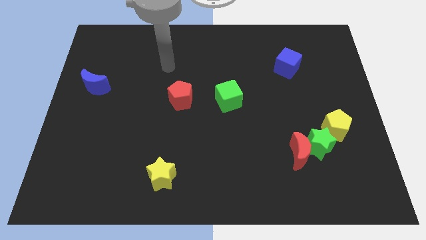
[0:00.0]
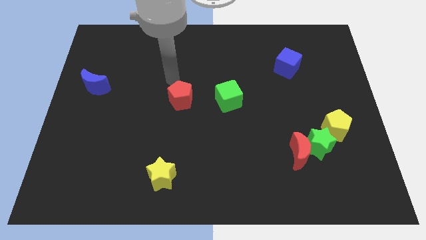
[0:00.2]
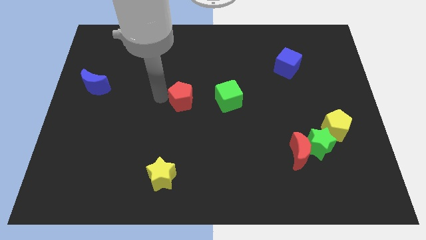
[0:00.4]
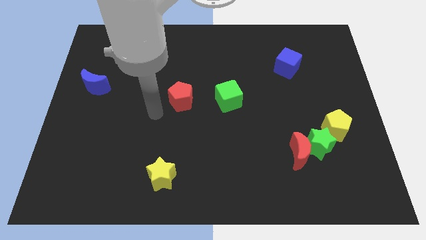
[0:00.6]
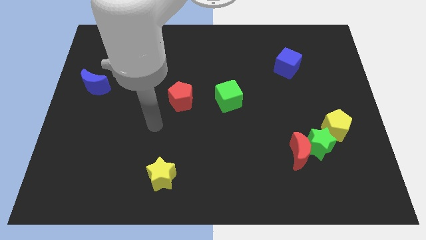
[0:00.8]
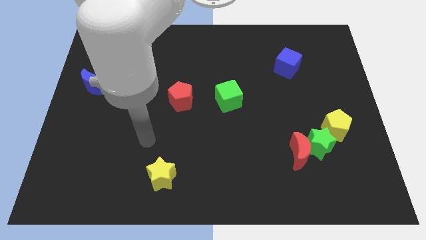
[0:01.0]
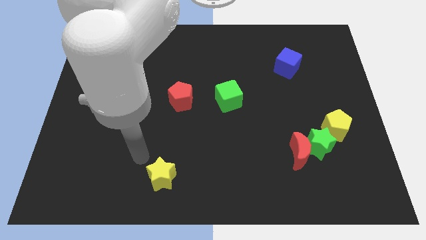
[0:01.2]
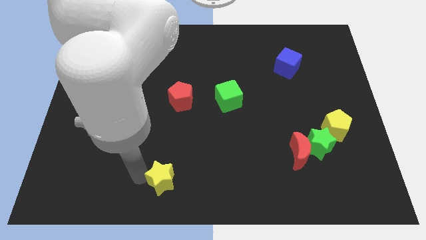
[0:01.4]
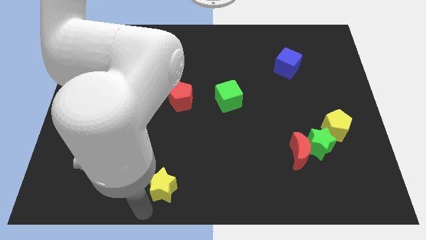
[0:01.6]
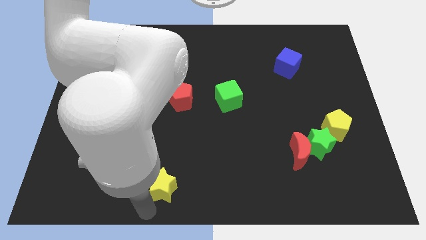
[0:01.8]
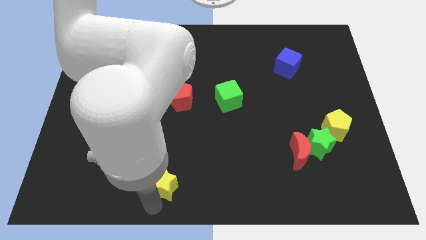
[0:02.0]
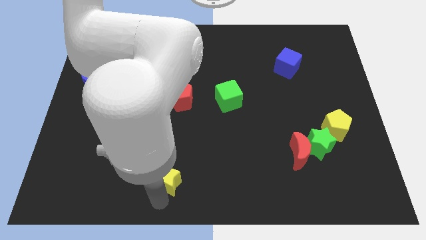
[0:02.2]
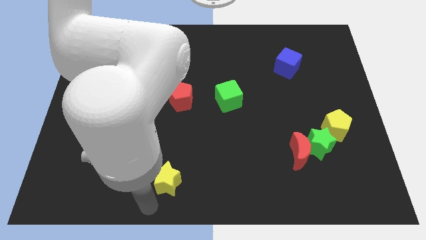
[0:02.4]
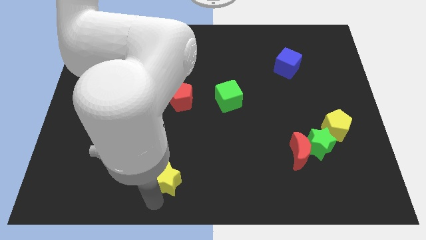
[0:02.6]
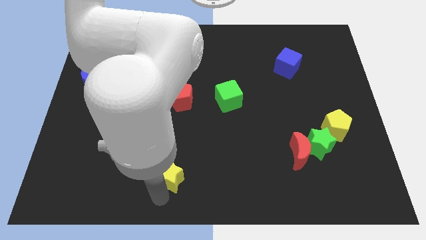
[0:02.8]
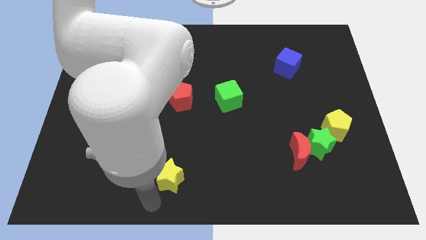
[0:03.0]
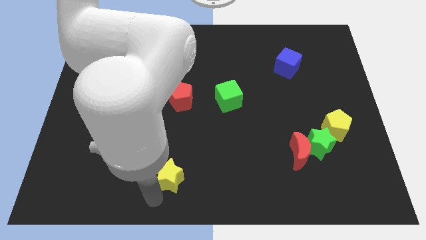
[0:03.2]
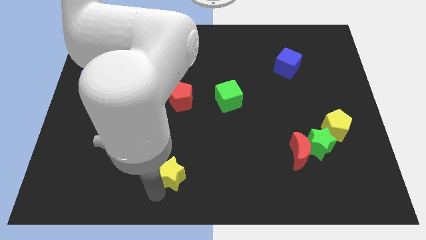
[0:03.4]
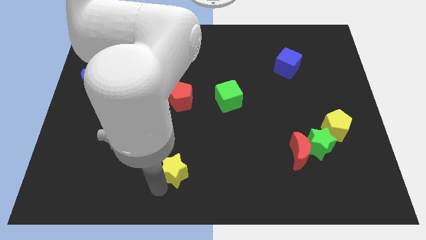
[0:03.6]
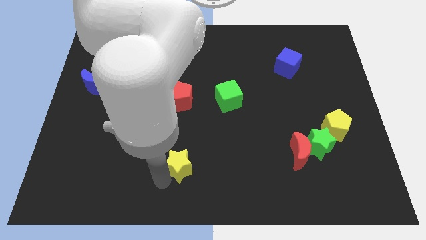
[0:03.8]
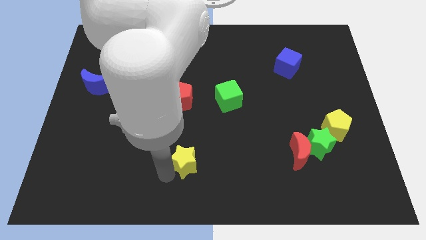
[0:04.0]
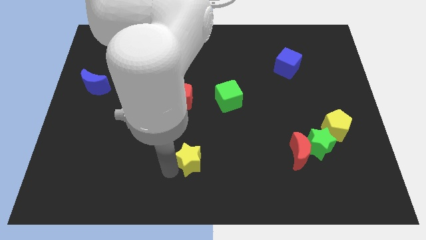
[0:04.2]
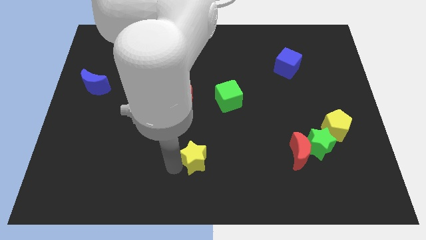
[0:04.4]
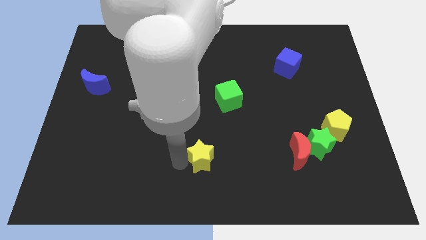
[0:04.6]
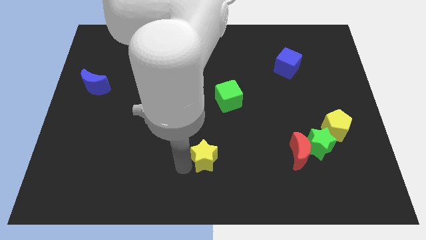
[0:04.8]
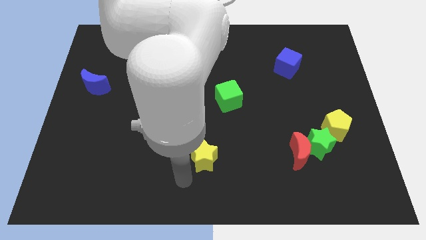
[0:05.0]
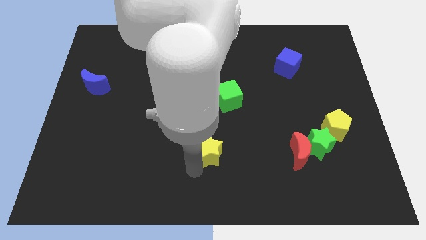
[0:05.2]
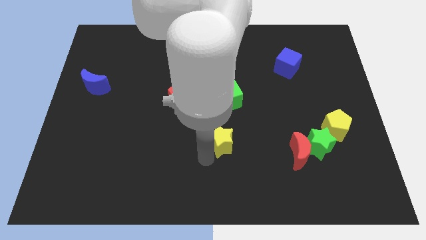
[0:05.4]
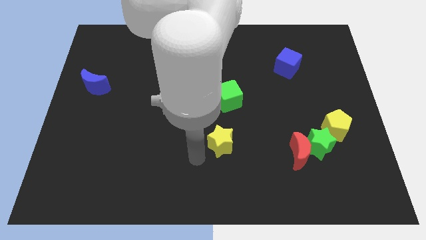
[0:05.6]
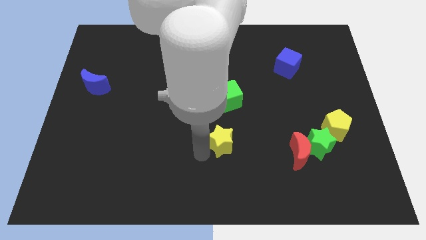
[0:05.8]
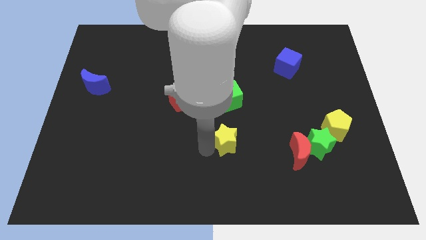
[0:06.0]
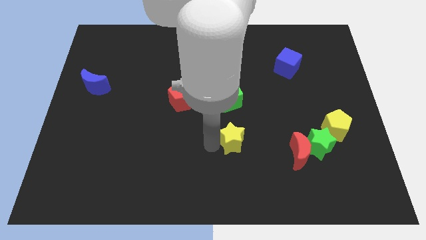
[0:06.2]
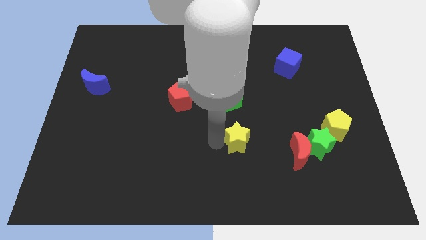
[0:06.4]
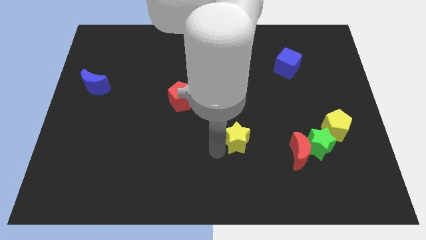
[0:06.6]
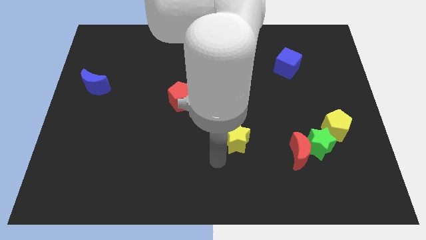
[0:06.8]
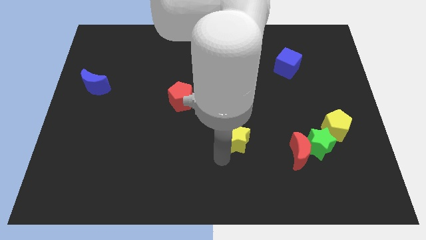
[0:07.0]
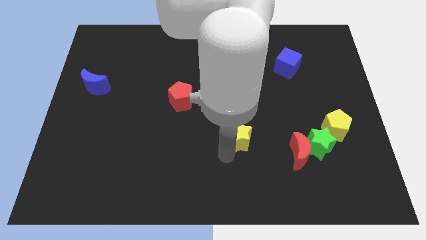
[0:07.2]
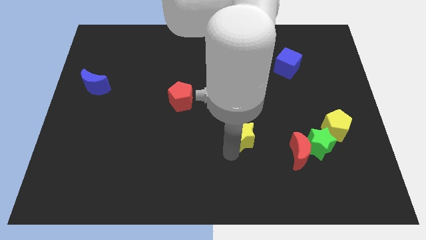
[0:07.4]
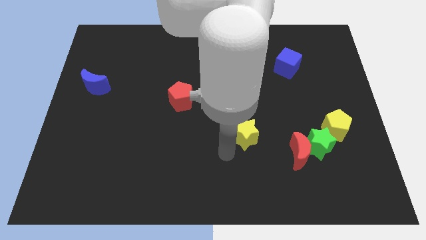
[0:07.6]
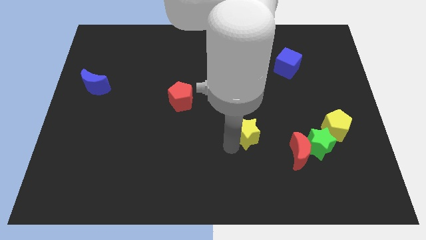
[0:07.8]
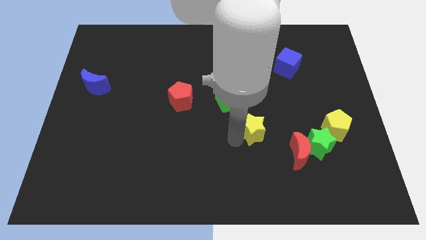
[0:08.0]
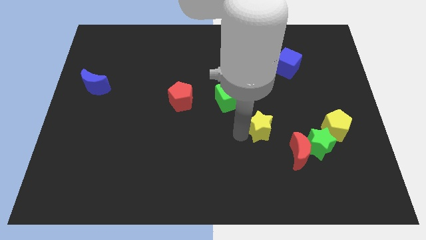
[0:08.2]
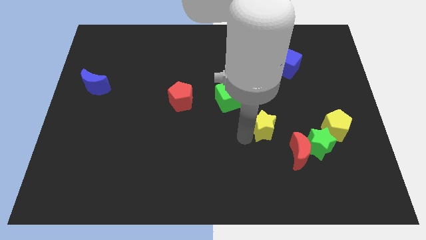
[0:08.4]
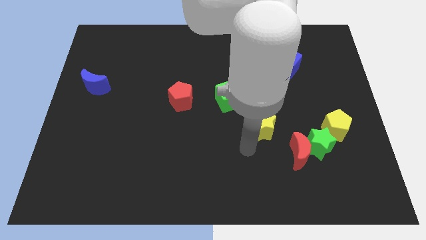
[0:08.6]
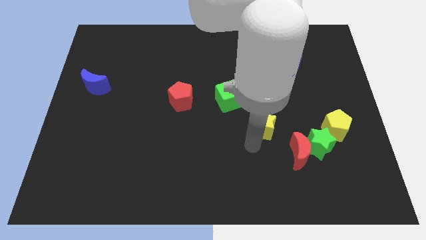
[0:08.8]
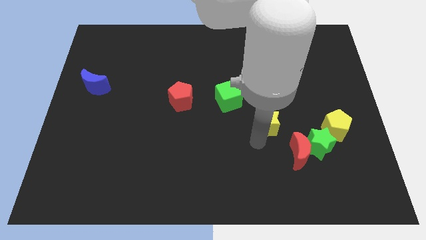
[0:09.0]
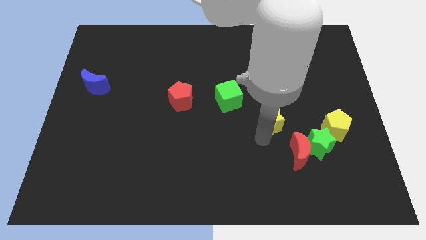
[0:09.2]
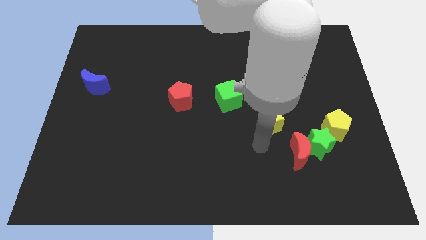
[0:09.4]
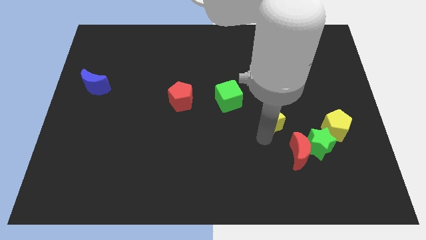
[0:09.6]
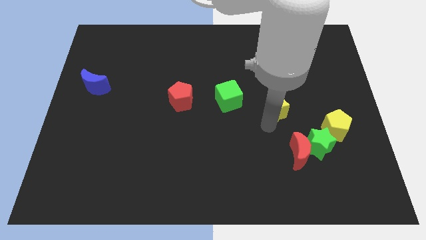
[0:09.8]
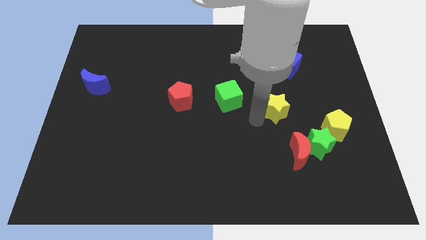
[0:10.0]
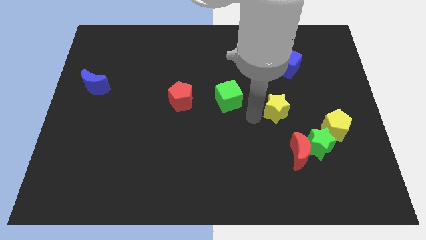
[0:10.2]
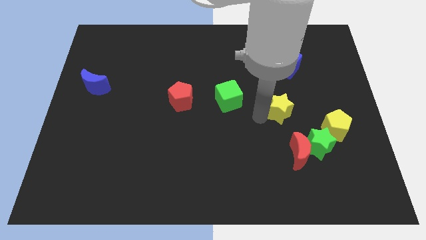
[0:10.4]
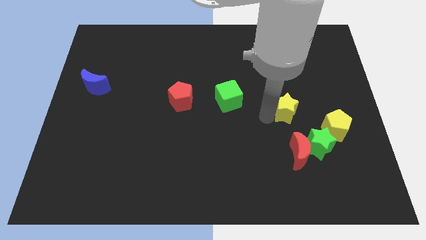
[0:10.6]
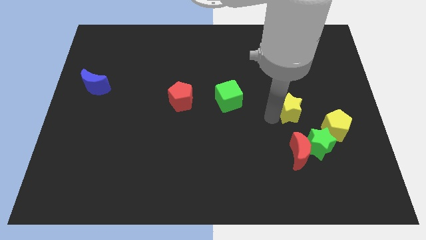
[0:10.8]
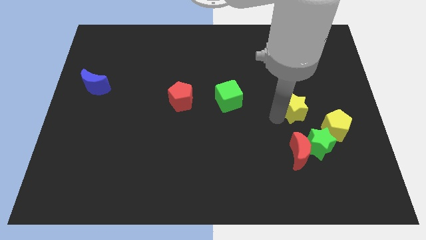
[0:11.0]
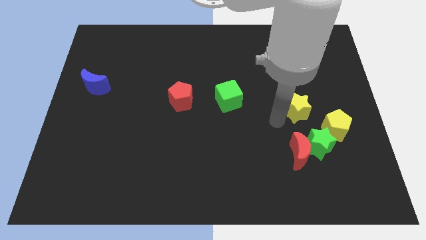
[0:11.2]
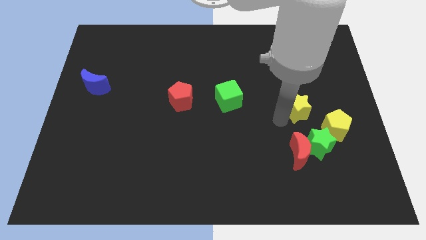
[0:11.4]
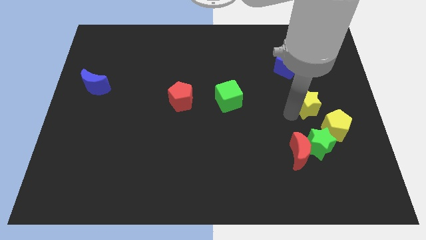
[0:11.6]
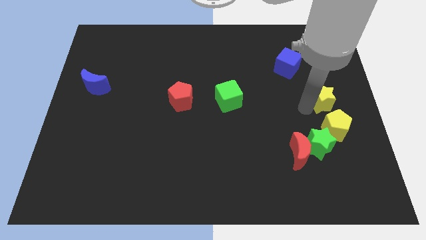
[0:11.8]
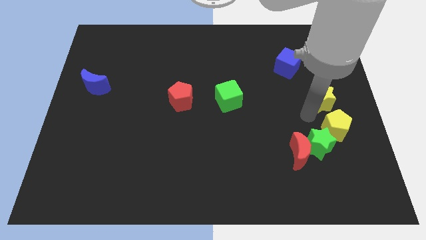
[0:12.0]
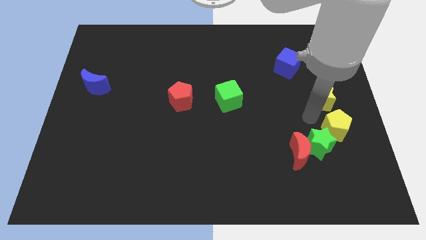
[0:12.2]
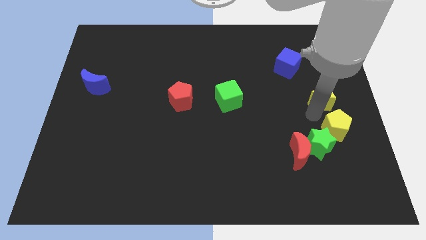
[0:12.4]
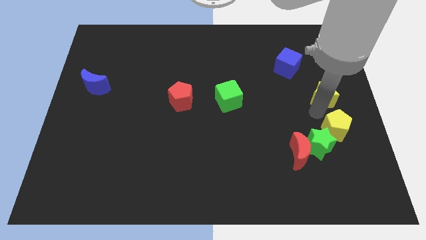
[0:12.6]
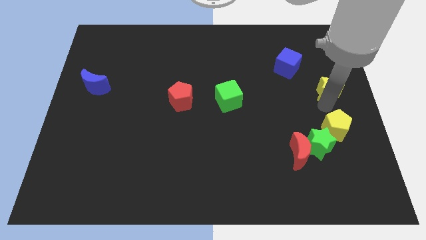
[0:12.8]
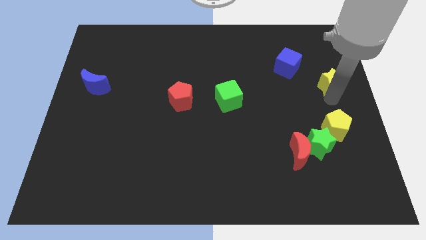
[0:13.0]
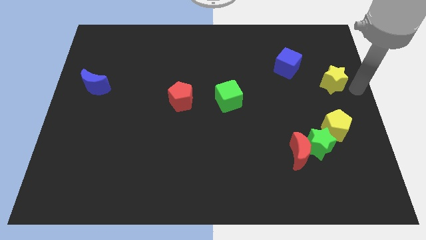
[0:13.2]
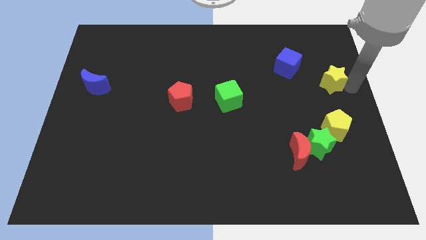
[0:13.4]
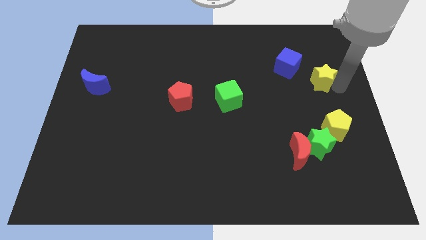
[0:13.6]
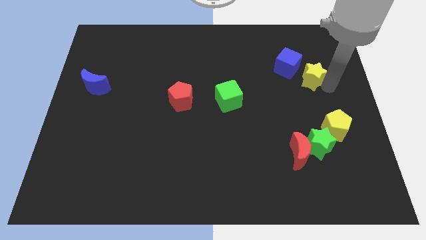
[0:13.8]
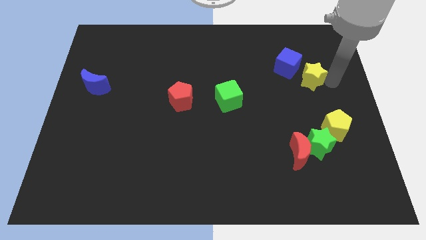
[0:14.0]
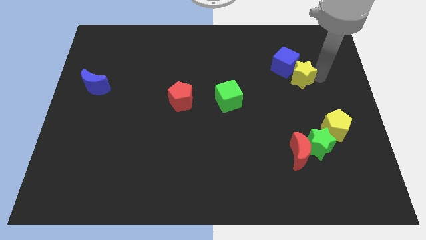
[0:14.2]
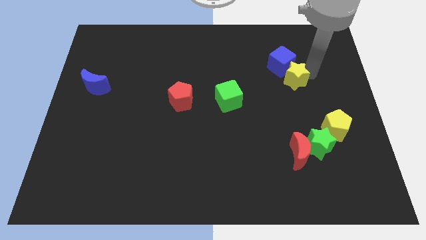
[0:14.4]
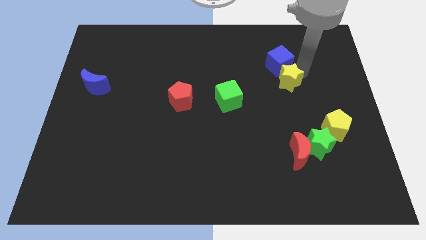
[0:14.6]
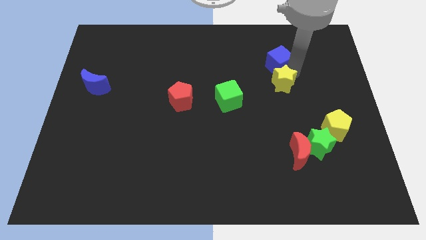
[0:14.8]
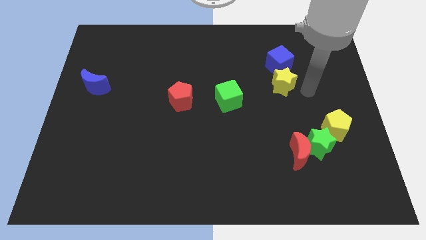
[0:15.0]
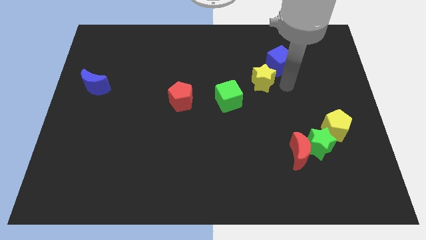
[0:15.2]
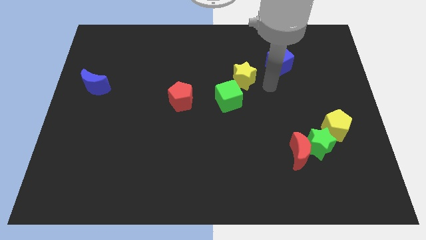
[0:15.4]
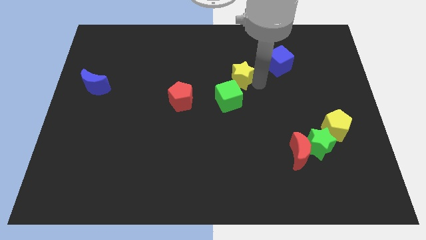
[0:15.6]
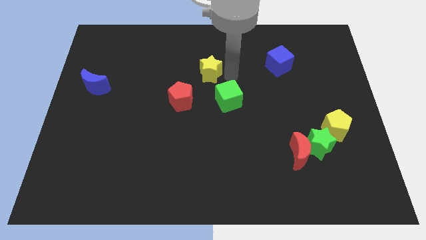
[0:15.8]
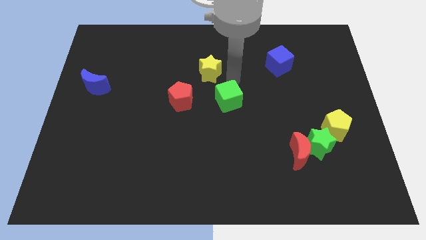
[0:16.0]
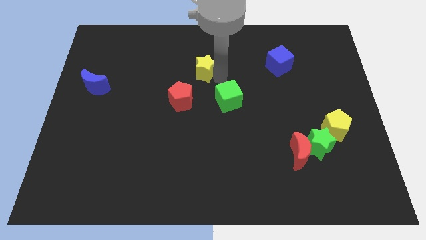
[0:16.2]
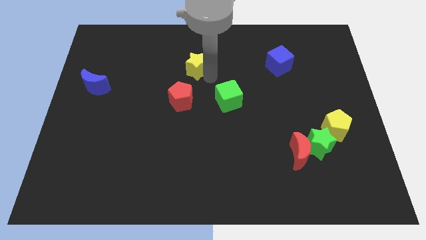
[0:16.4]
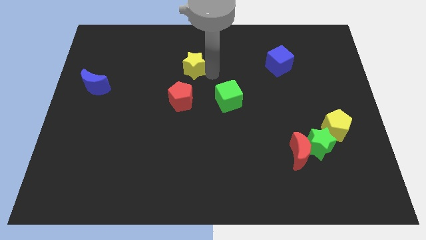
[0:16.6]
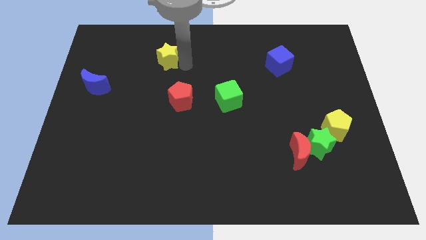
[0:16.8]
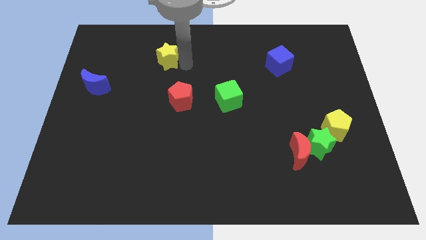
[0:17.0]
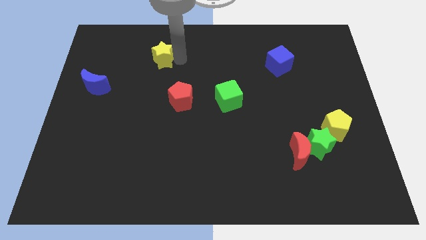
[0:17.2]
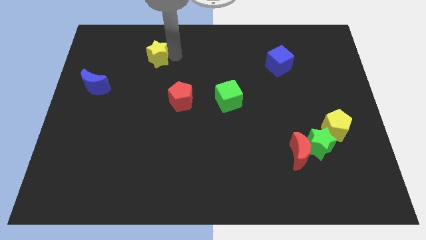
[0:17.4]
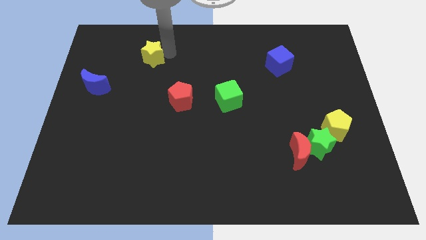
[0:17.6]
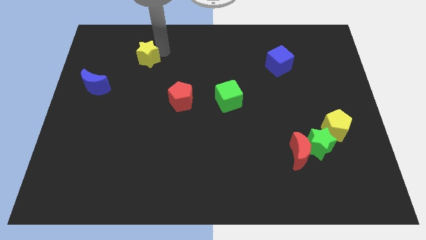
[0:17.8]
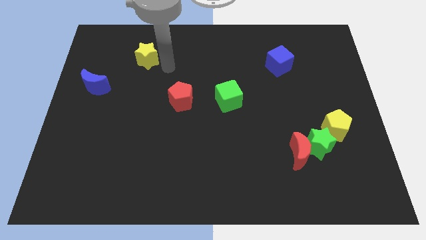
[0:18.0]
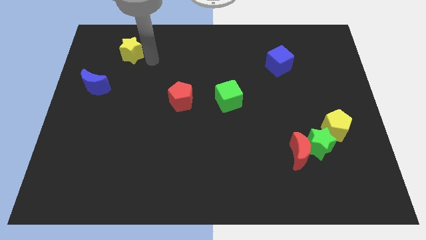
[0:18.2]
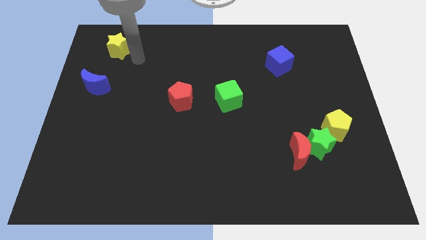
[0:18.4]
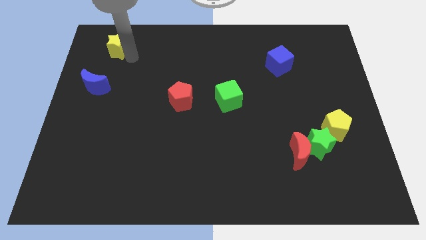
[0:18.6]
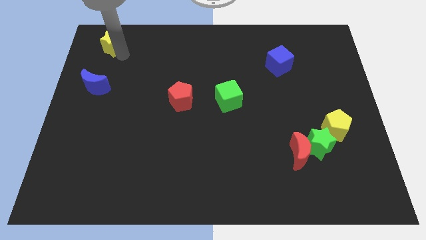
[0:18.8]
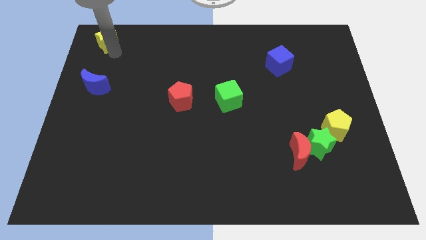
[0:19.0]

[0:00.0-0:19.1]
move the yellow star to the upper left corner
